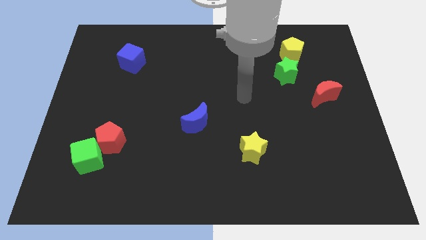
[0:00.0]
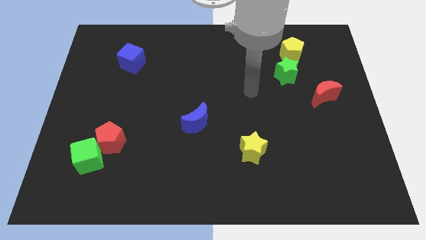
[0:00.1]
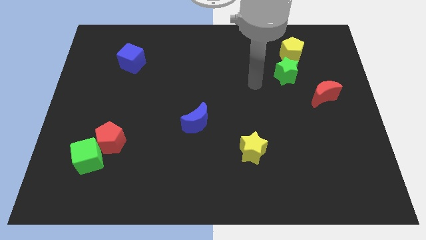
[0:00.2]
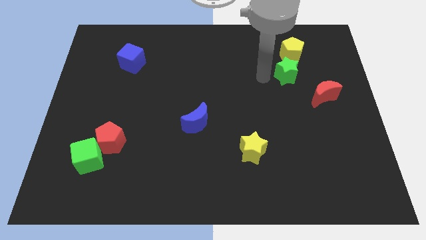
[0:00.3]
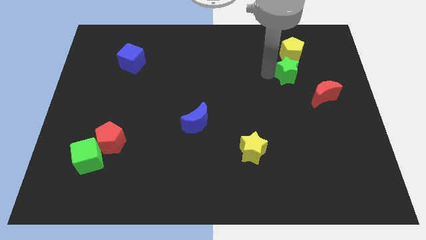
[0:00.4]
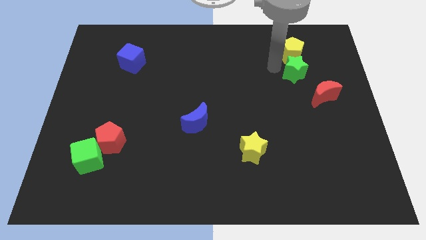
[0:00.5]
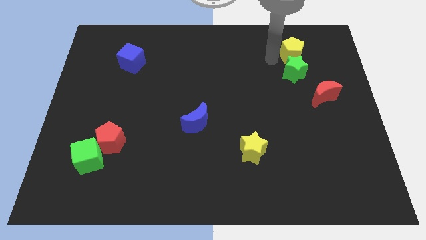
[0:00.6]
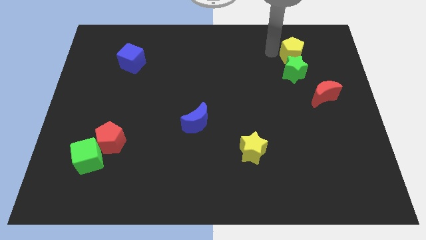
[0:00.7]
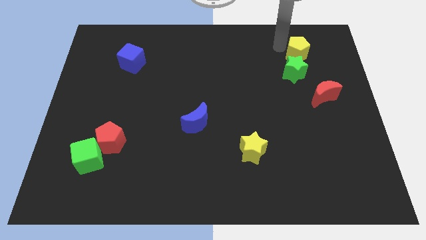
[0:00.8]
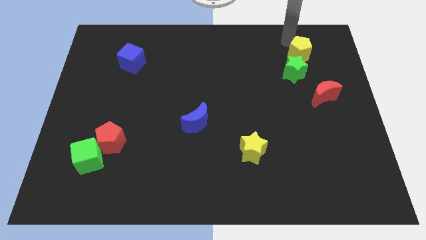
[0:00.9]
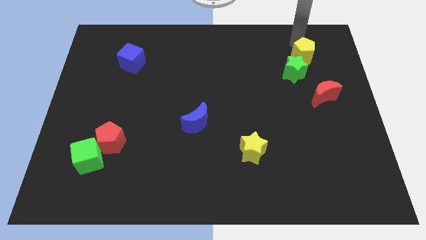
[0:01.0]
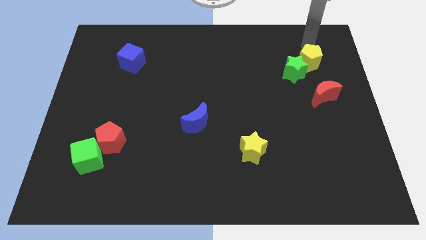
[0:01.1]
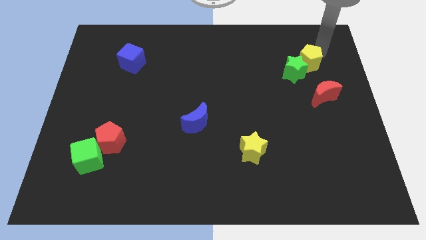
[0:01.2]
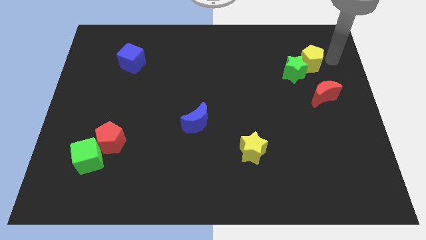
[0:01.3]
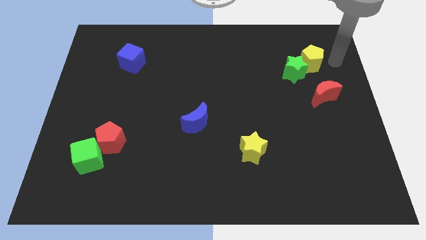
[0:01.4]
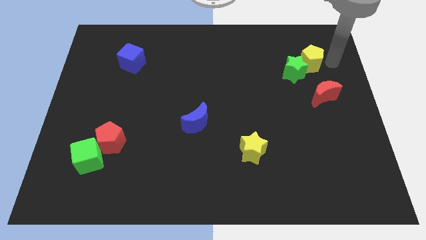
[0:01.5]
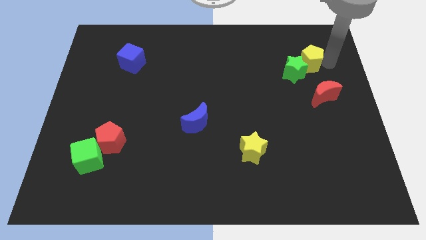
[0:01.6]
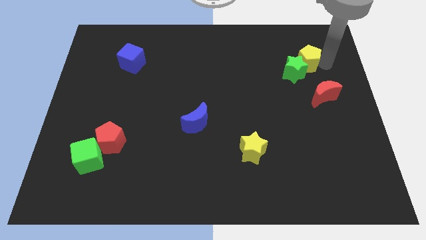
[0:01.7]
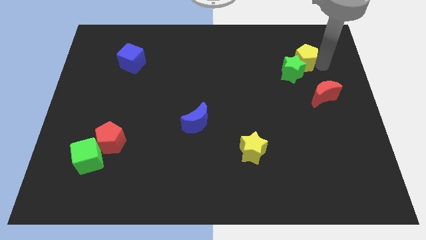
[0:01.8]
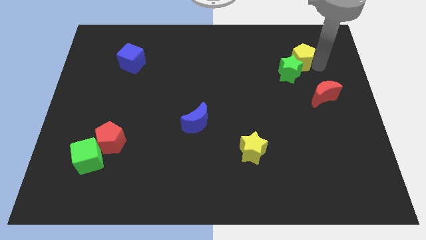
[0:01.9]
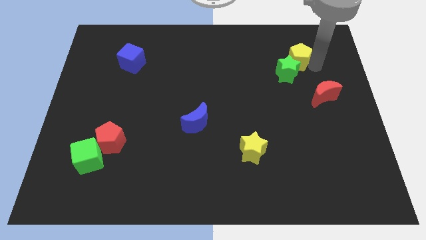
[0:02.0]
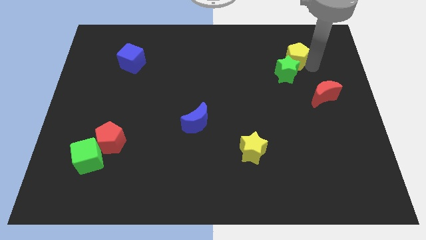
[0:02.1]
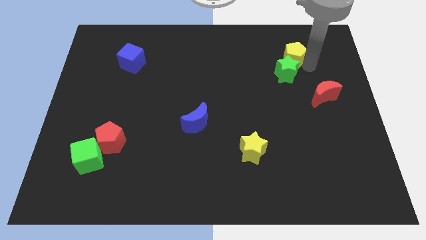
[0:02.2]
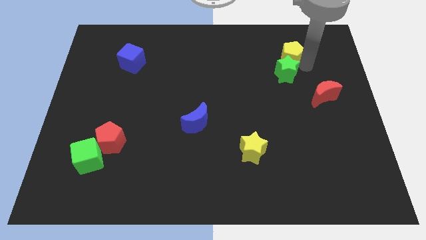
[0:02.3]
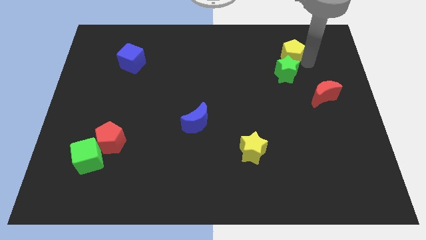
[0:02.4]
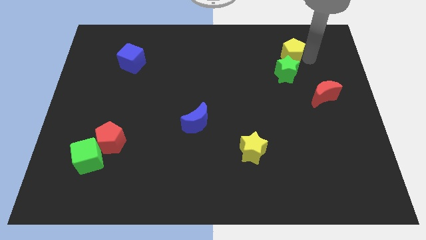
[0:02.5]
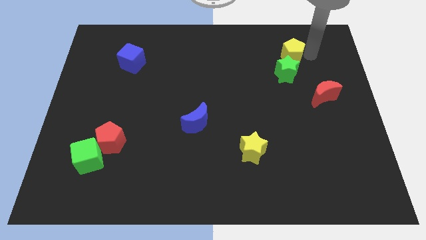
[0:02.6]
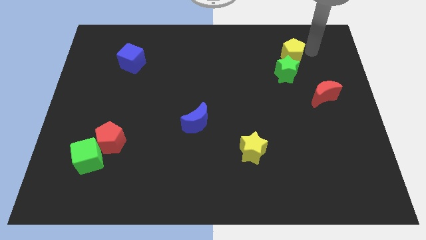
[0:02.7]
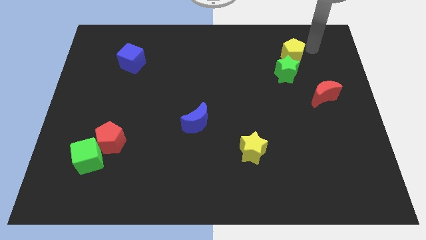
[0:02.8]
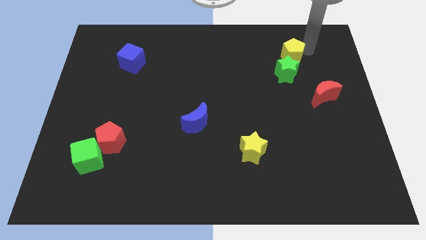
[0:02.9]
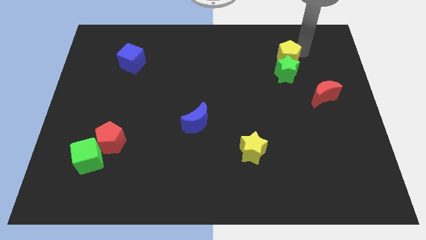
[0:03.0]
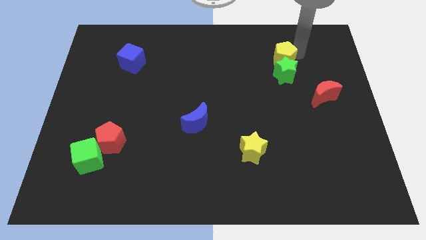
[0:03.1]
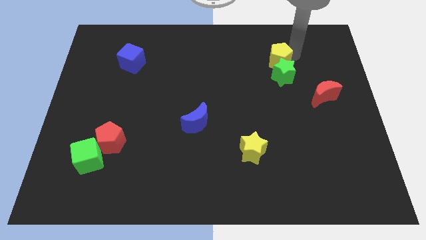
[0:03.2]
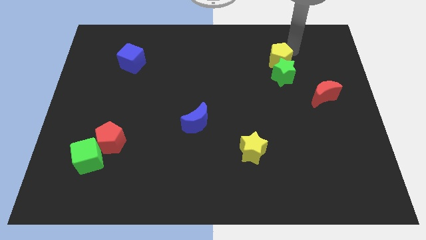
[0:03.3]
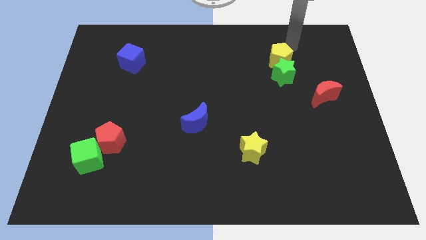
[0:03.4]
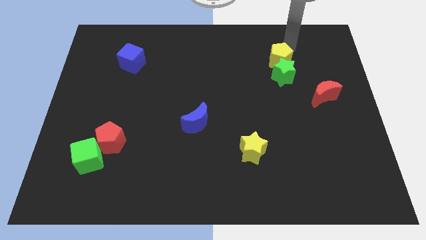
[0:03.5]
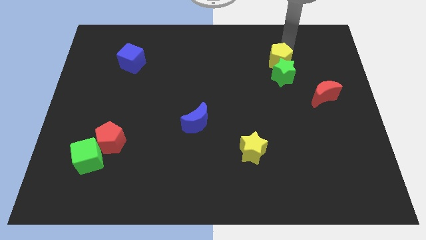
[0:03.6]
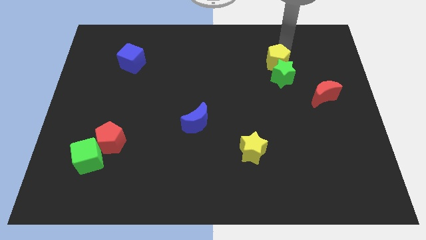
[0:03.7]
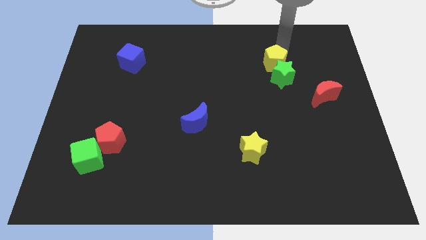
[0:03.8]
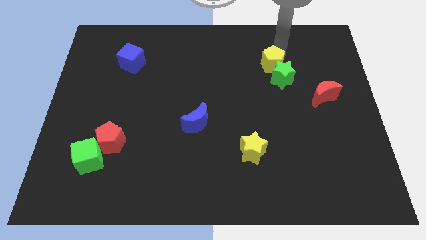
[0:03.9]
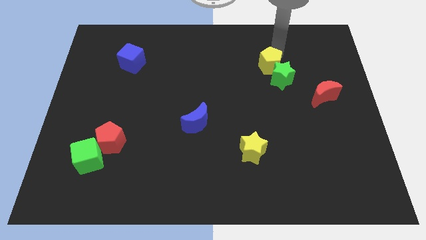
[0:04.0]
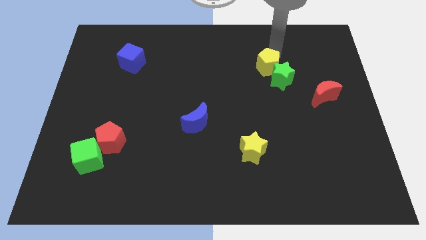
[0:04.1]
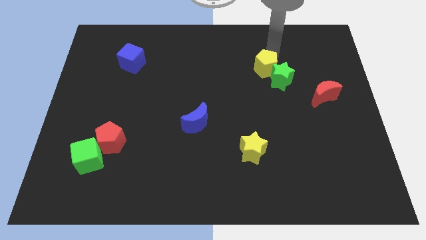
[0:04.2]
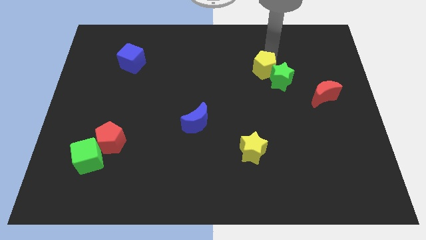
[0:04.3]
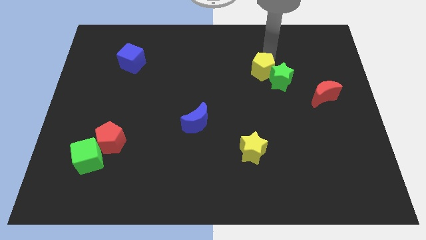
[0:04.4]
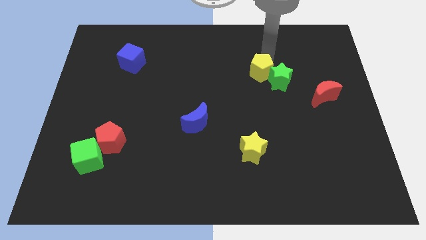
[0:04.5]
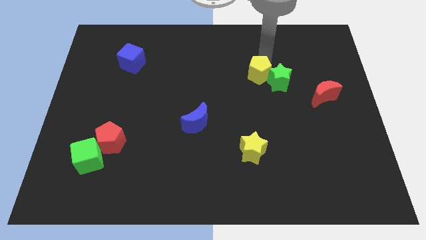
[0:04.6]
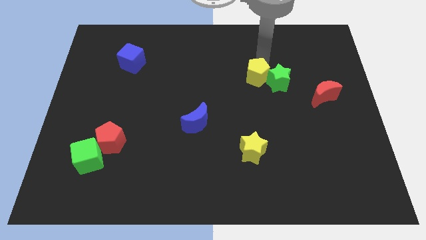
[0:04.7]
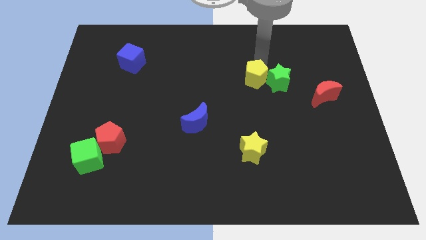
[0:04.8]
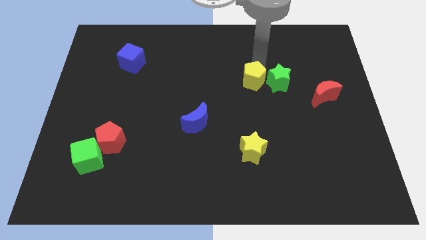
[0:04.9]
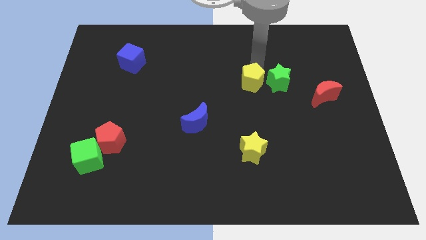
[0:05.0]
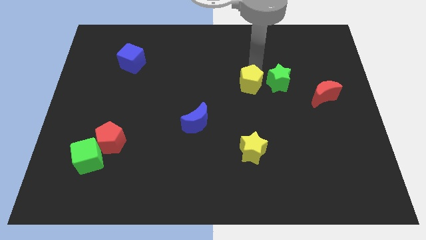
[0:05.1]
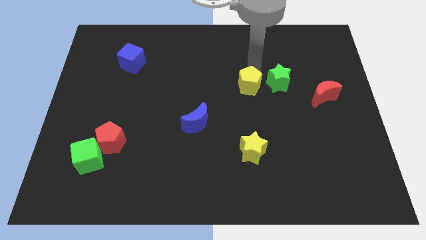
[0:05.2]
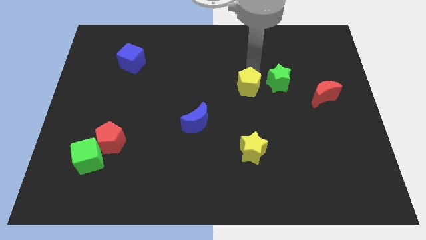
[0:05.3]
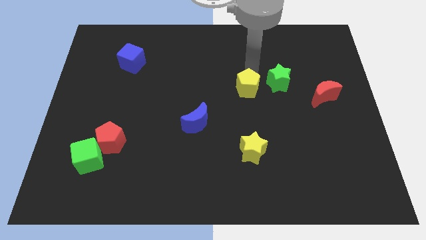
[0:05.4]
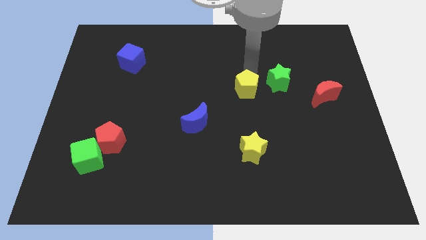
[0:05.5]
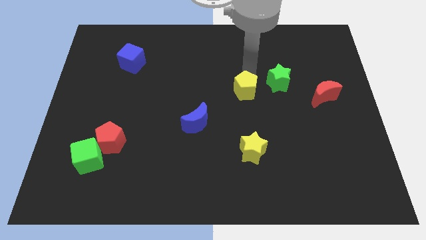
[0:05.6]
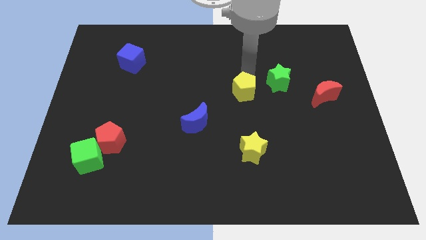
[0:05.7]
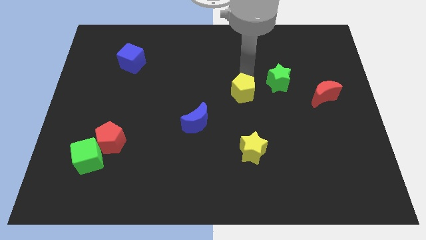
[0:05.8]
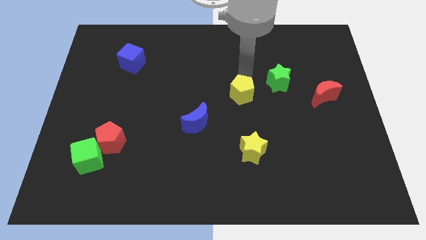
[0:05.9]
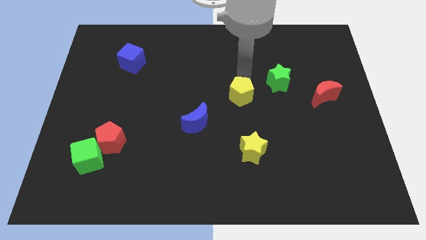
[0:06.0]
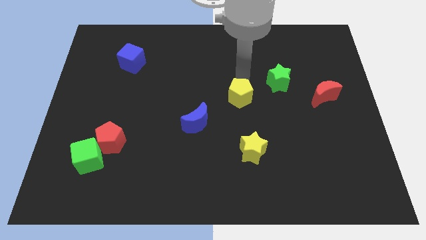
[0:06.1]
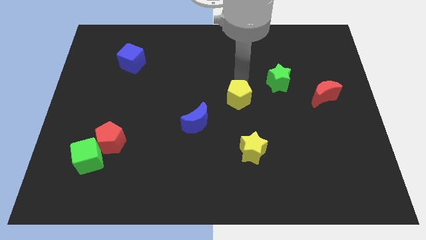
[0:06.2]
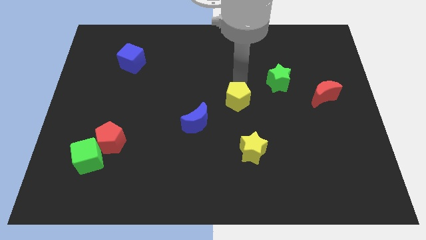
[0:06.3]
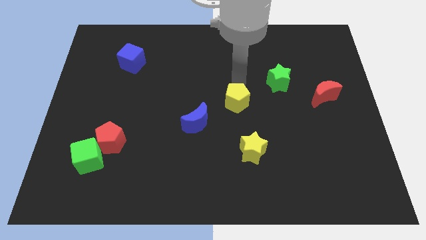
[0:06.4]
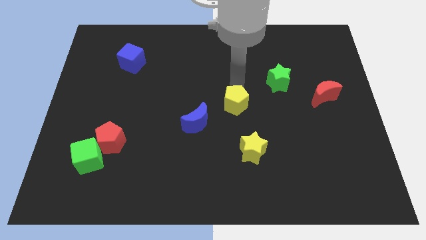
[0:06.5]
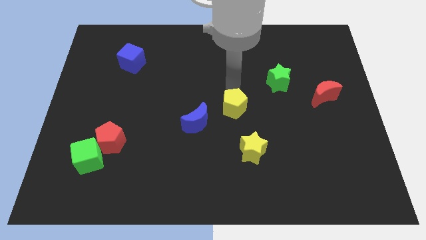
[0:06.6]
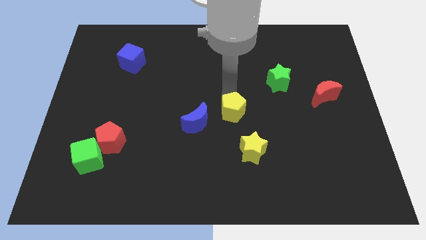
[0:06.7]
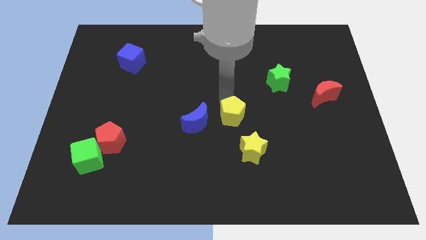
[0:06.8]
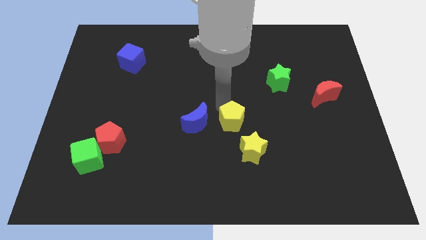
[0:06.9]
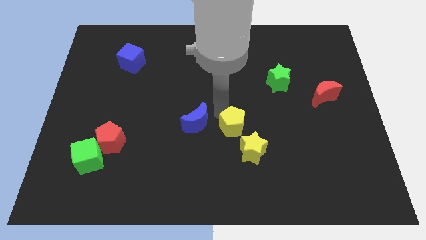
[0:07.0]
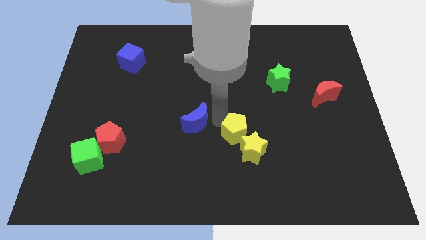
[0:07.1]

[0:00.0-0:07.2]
put the yellow pentagon towards the yellow star

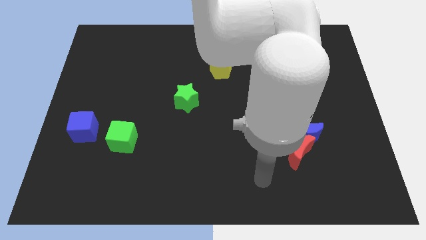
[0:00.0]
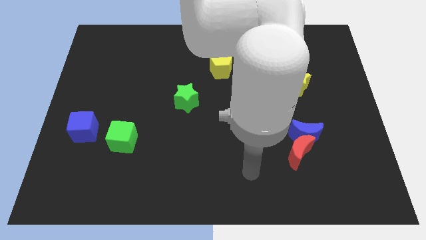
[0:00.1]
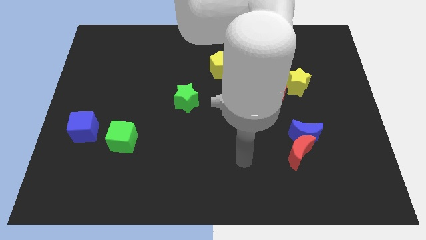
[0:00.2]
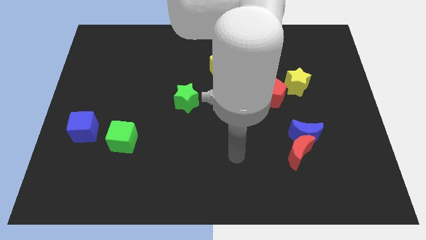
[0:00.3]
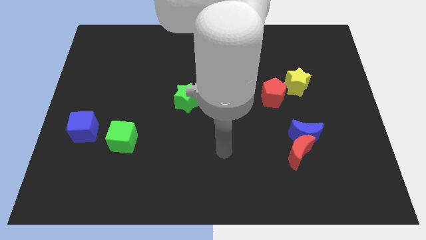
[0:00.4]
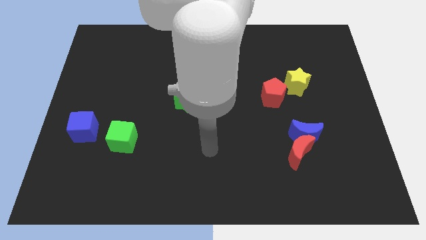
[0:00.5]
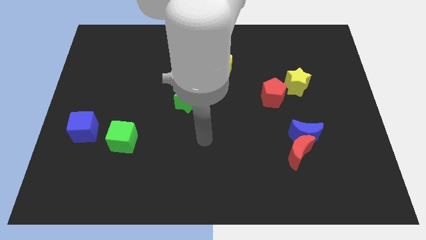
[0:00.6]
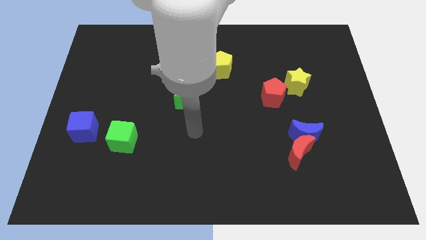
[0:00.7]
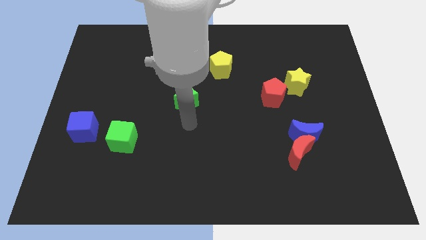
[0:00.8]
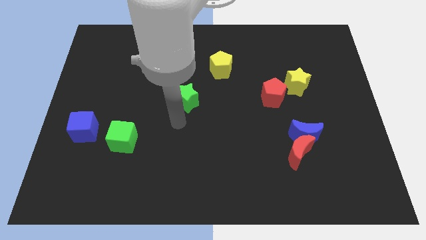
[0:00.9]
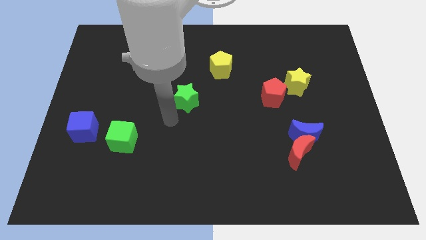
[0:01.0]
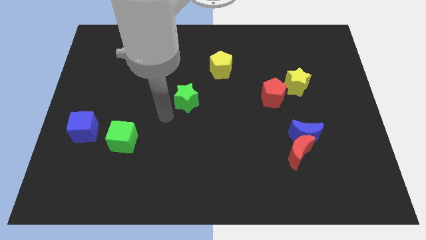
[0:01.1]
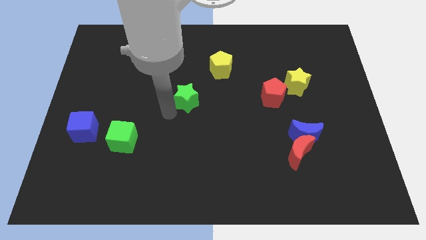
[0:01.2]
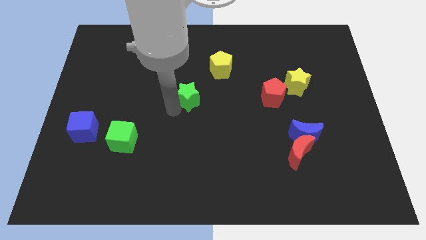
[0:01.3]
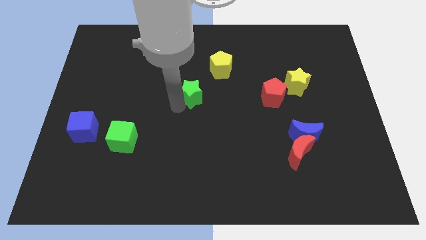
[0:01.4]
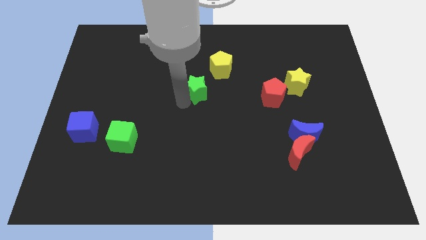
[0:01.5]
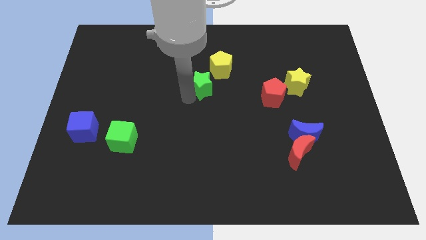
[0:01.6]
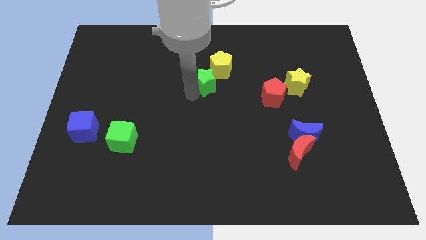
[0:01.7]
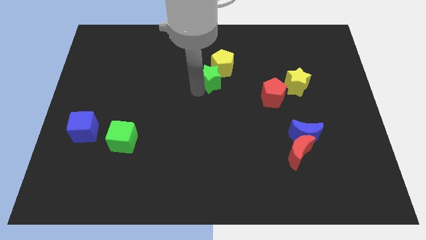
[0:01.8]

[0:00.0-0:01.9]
push the green star next to the yellow pentagon
